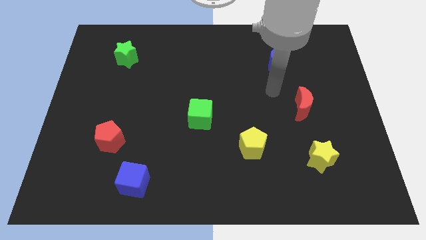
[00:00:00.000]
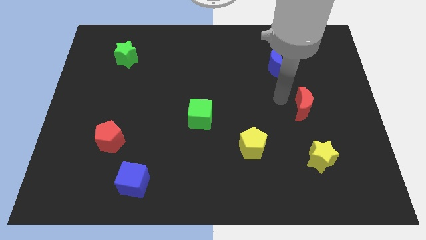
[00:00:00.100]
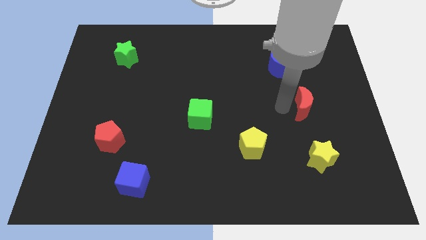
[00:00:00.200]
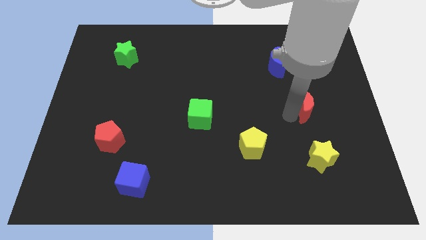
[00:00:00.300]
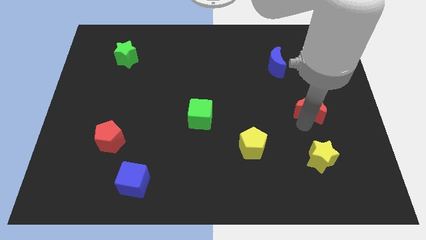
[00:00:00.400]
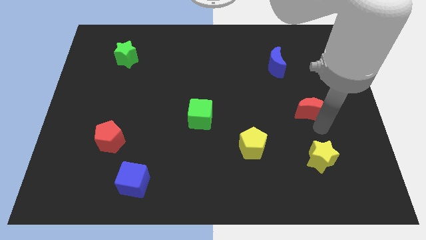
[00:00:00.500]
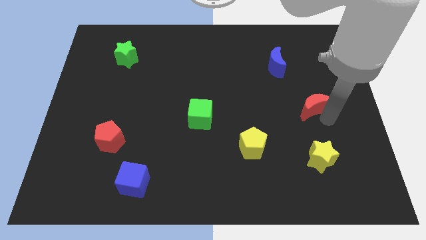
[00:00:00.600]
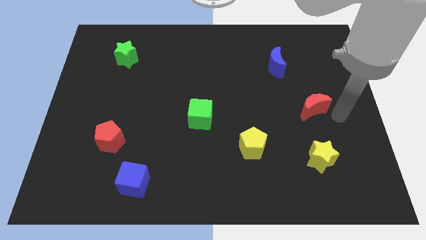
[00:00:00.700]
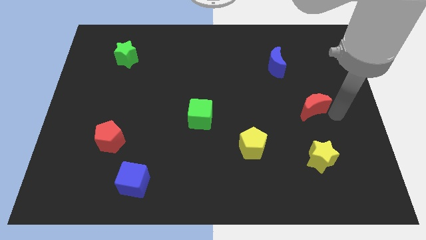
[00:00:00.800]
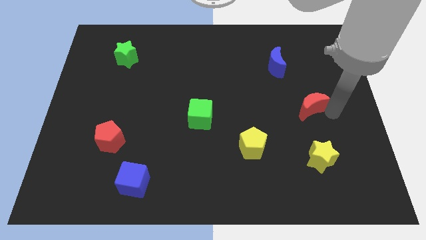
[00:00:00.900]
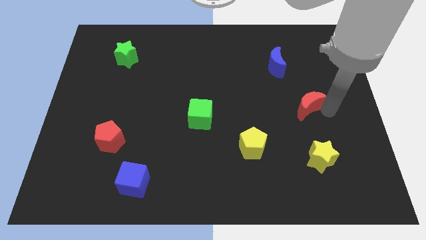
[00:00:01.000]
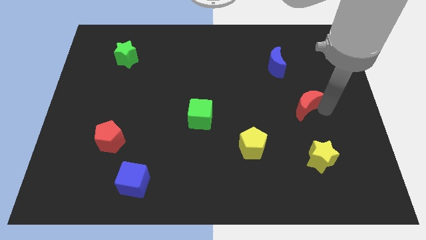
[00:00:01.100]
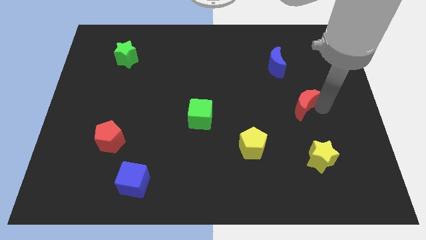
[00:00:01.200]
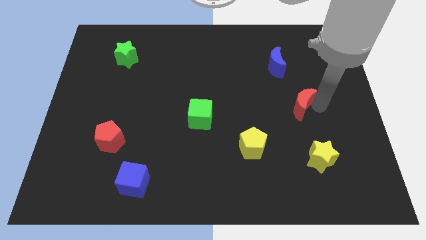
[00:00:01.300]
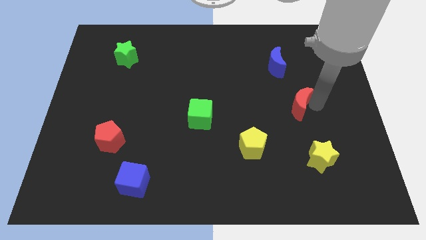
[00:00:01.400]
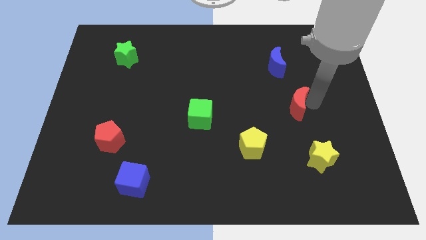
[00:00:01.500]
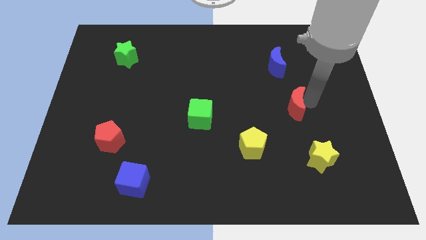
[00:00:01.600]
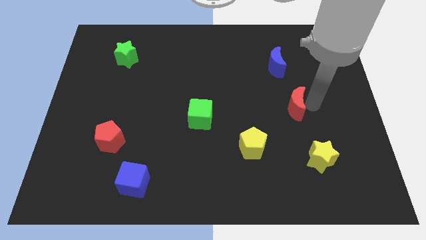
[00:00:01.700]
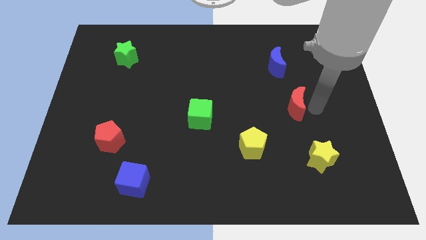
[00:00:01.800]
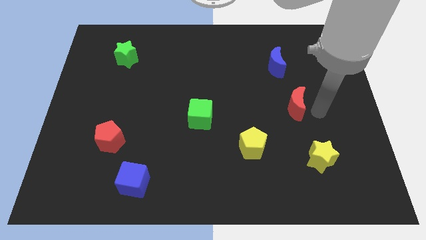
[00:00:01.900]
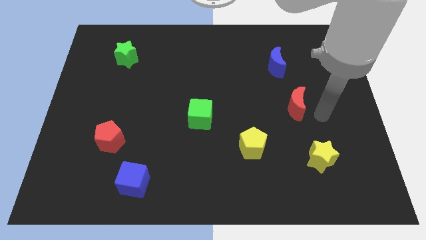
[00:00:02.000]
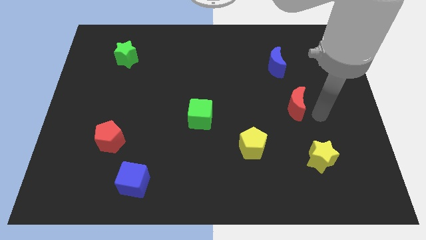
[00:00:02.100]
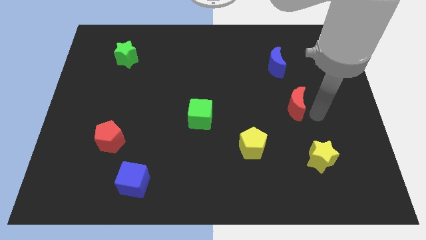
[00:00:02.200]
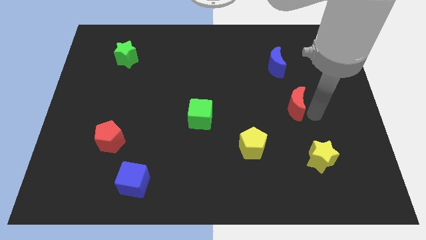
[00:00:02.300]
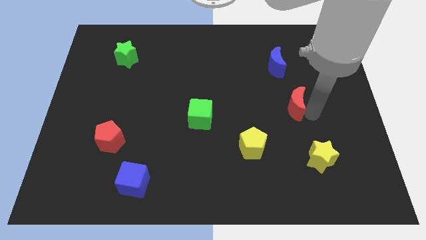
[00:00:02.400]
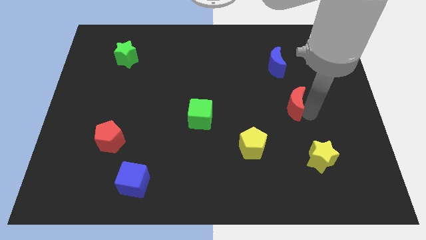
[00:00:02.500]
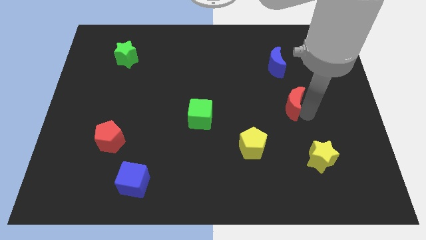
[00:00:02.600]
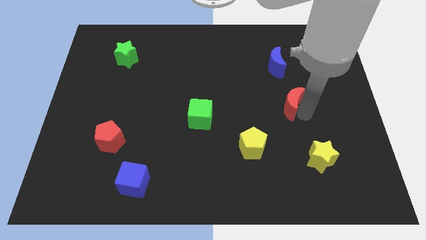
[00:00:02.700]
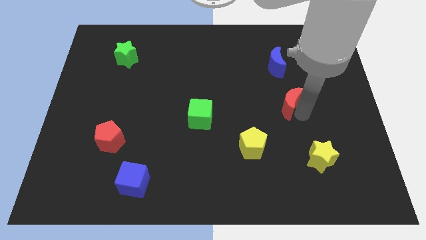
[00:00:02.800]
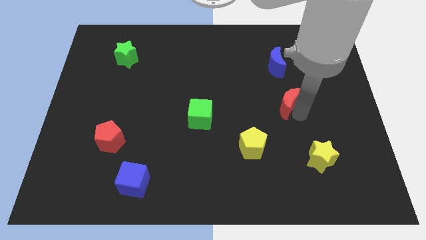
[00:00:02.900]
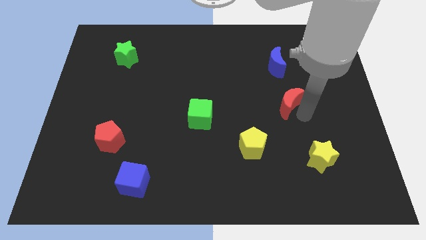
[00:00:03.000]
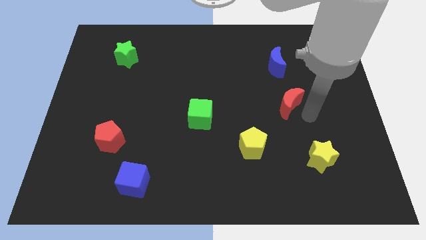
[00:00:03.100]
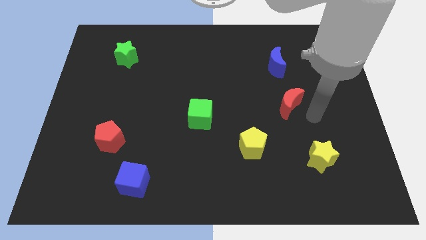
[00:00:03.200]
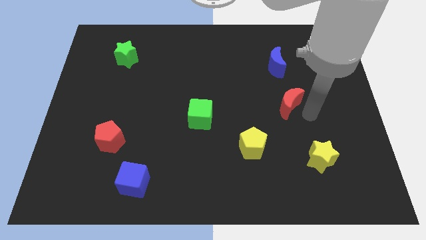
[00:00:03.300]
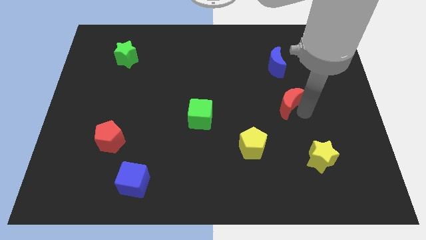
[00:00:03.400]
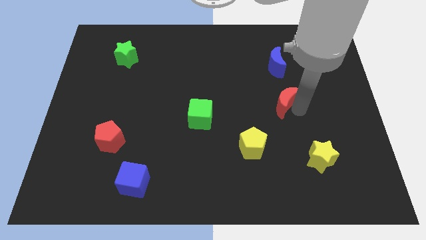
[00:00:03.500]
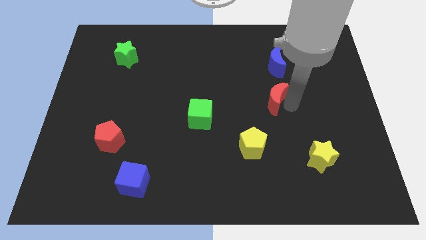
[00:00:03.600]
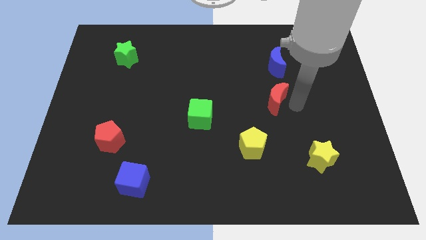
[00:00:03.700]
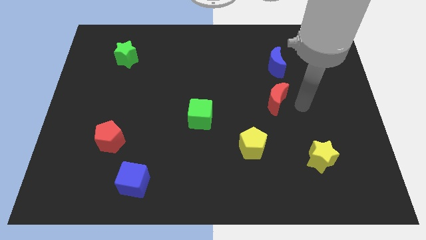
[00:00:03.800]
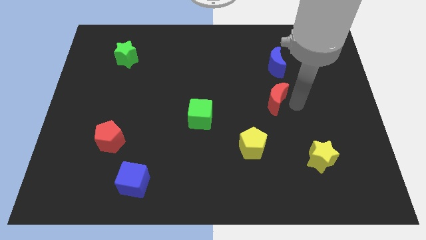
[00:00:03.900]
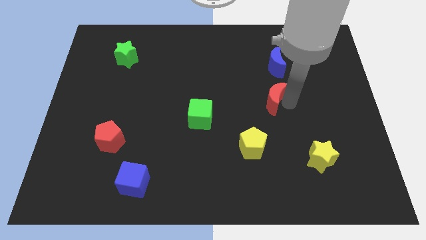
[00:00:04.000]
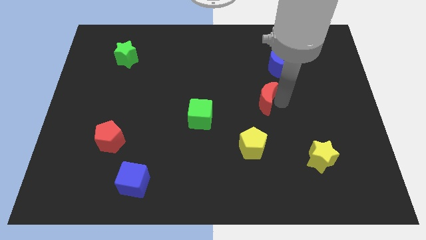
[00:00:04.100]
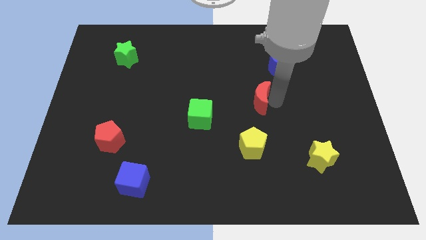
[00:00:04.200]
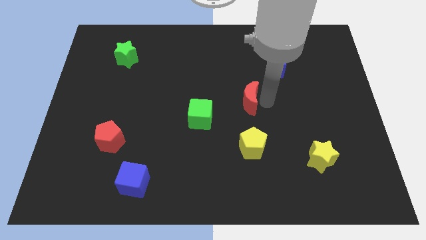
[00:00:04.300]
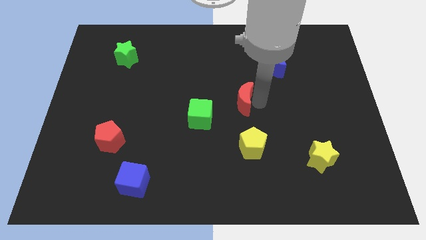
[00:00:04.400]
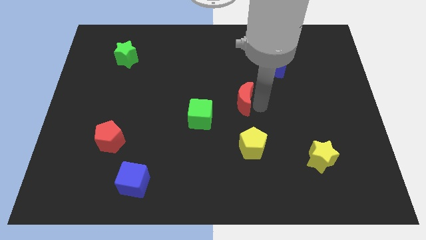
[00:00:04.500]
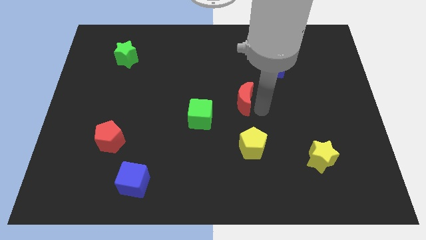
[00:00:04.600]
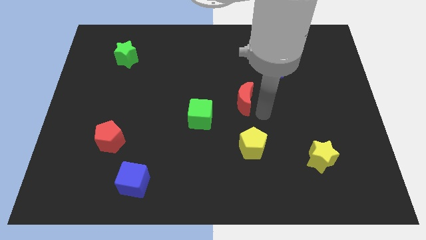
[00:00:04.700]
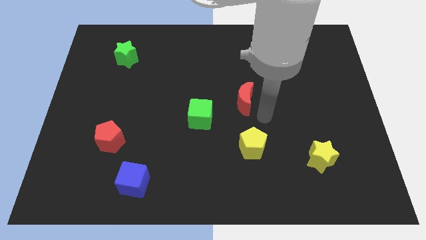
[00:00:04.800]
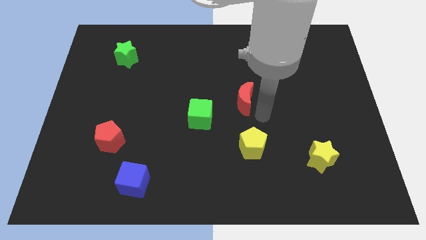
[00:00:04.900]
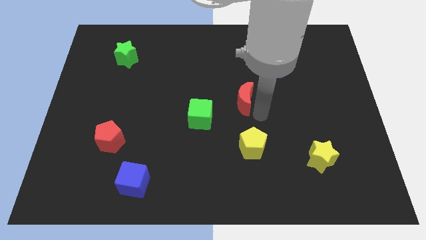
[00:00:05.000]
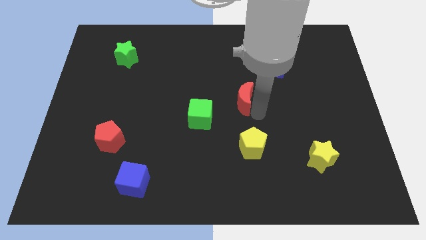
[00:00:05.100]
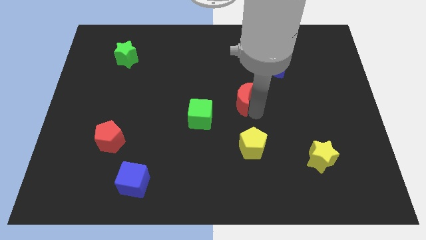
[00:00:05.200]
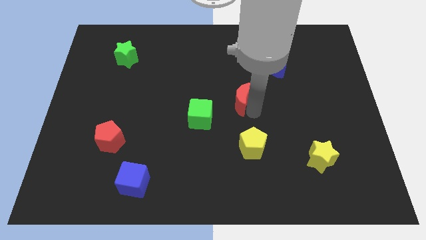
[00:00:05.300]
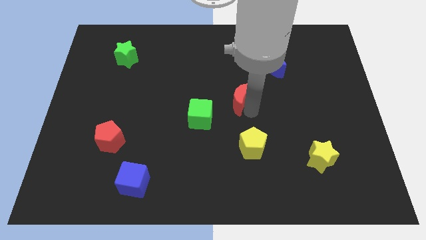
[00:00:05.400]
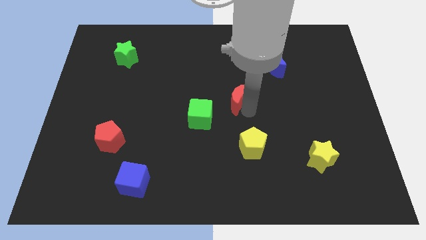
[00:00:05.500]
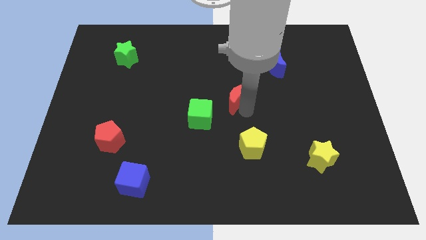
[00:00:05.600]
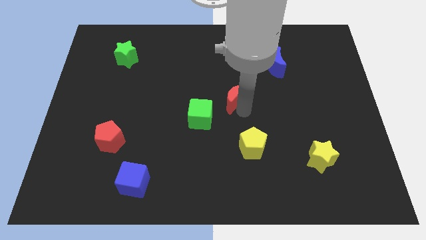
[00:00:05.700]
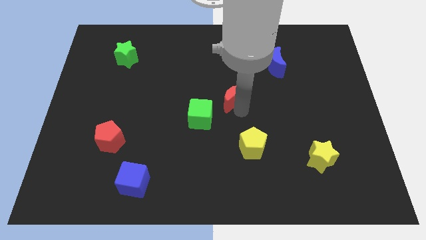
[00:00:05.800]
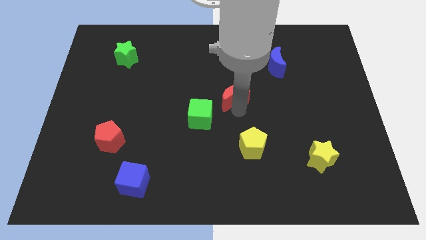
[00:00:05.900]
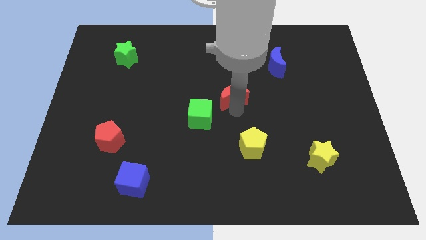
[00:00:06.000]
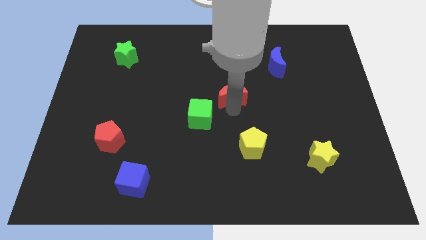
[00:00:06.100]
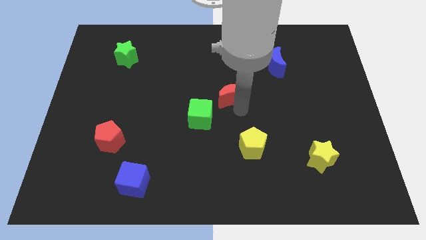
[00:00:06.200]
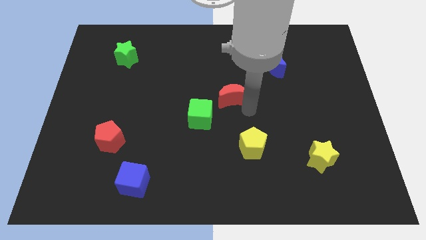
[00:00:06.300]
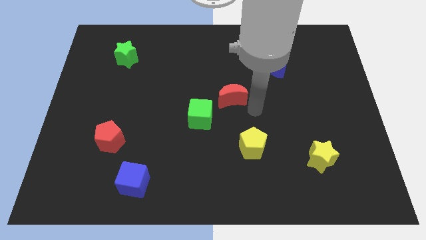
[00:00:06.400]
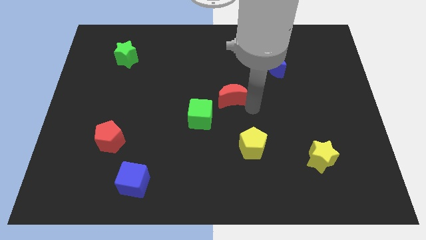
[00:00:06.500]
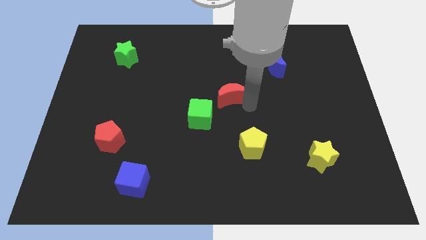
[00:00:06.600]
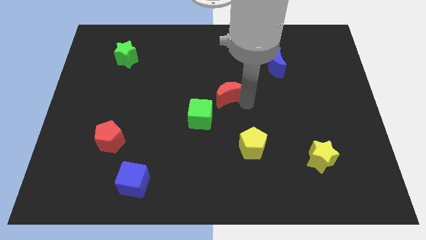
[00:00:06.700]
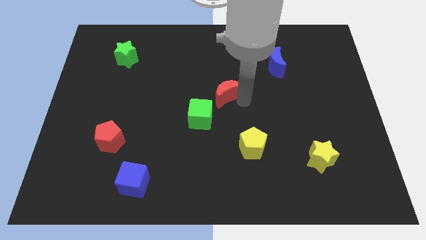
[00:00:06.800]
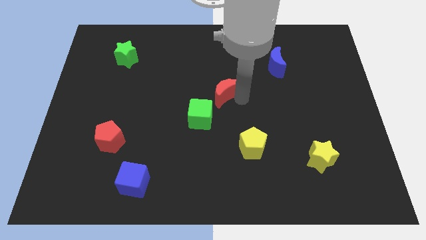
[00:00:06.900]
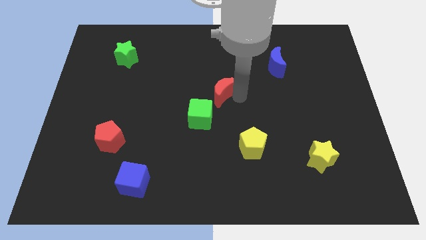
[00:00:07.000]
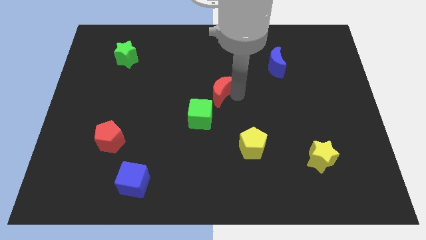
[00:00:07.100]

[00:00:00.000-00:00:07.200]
move the red moon above the green cube
